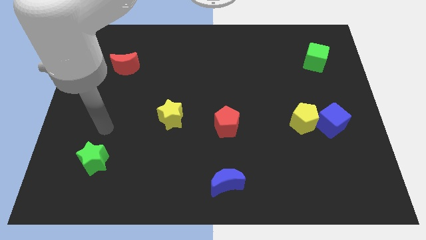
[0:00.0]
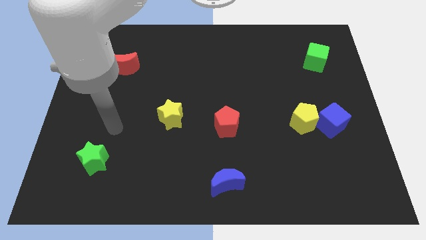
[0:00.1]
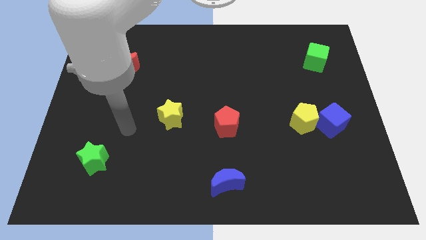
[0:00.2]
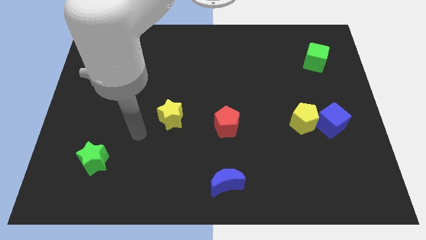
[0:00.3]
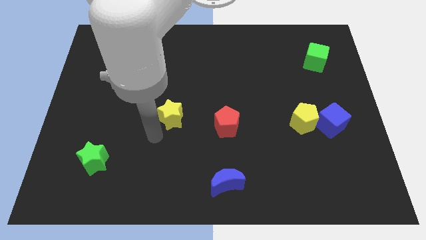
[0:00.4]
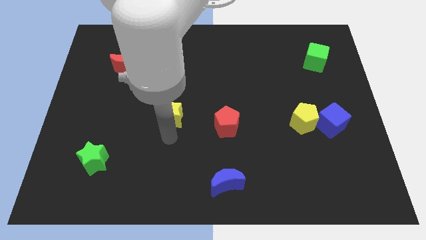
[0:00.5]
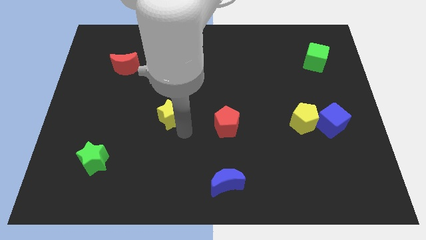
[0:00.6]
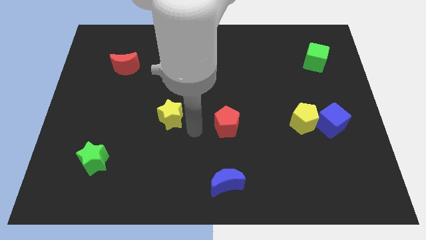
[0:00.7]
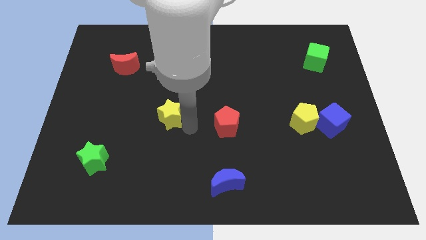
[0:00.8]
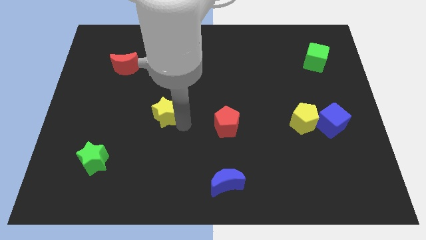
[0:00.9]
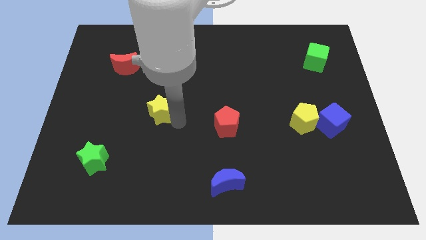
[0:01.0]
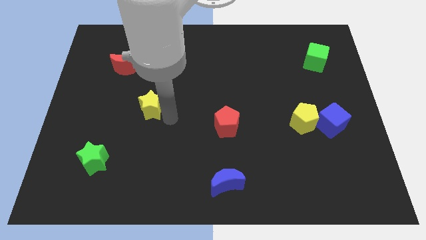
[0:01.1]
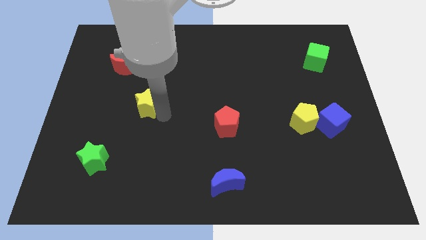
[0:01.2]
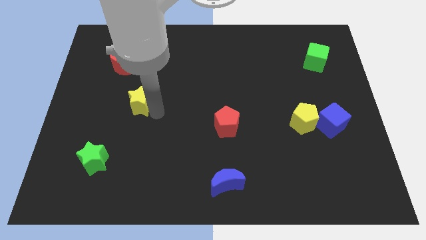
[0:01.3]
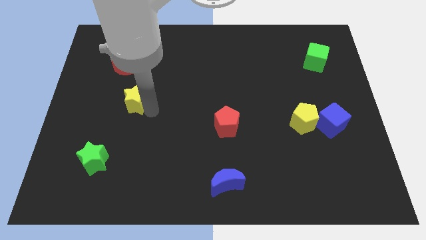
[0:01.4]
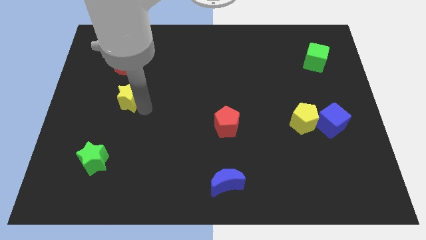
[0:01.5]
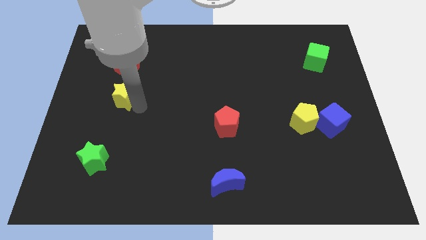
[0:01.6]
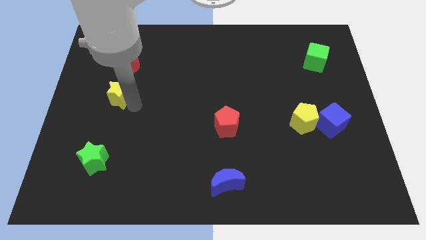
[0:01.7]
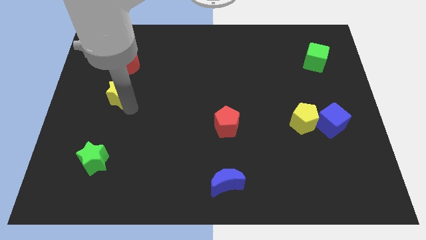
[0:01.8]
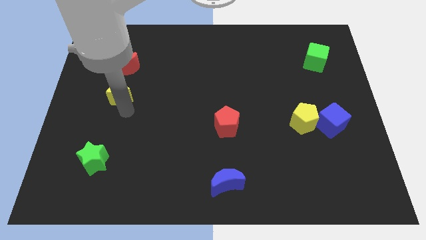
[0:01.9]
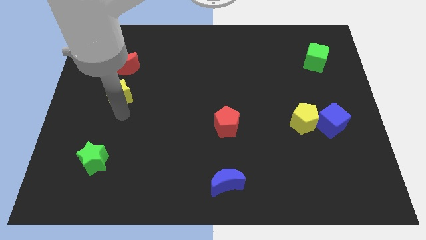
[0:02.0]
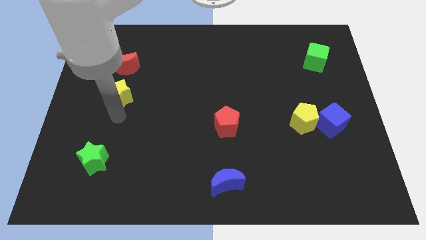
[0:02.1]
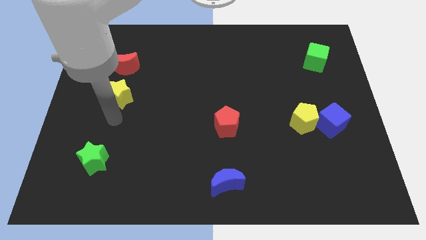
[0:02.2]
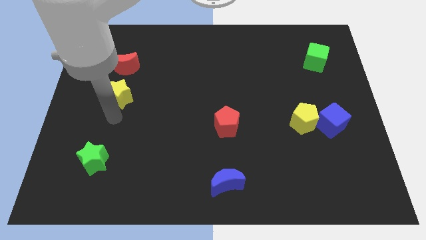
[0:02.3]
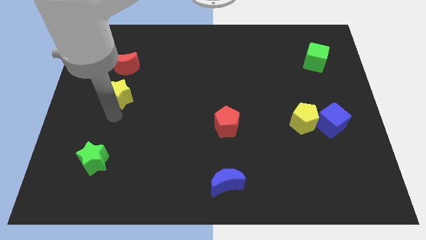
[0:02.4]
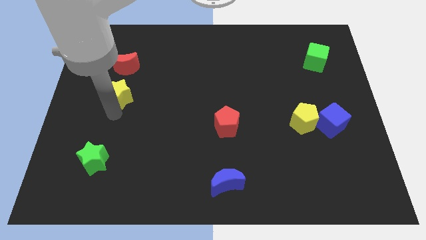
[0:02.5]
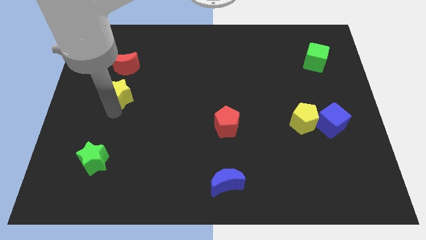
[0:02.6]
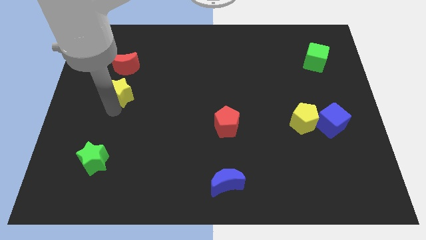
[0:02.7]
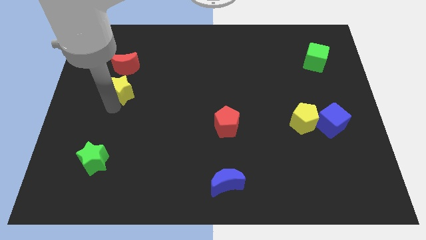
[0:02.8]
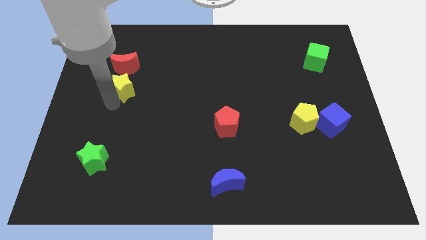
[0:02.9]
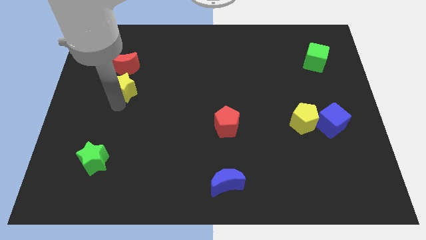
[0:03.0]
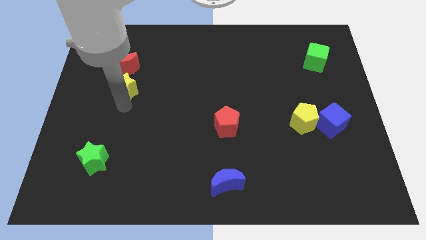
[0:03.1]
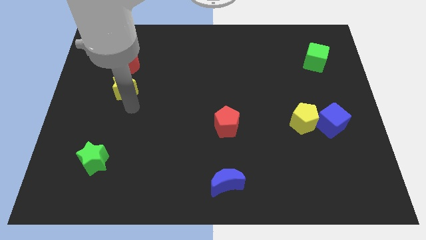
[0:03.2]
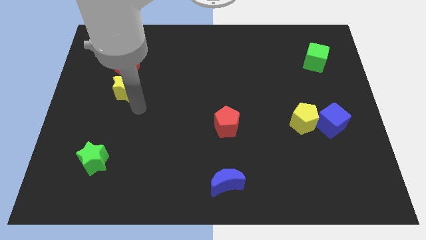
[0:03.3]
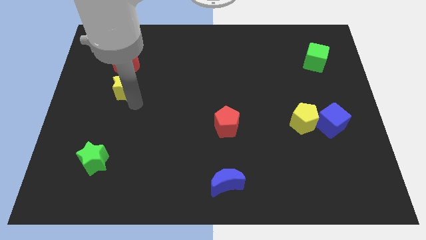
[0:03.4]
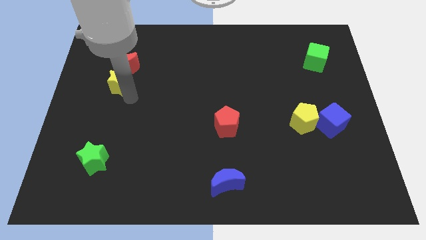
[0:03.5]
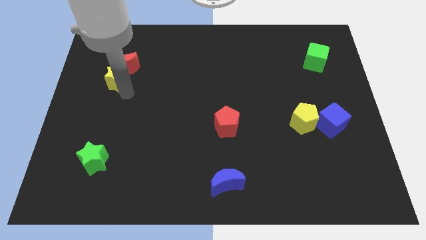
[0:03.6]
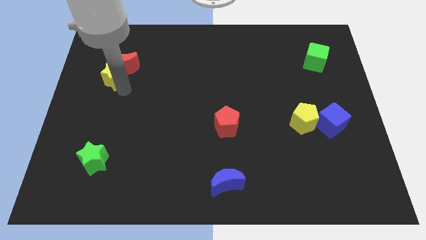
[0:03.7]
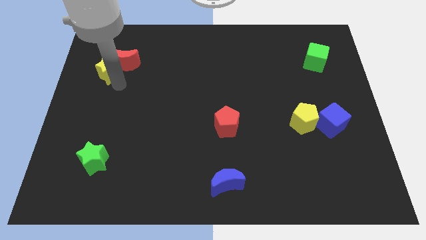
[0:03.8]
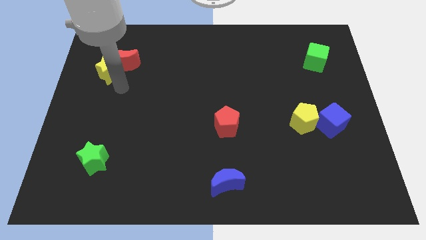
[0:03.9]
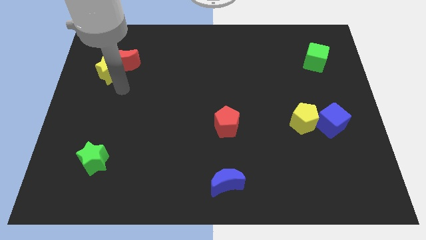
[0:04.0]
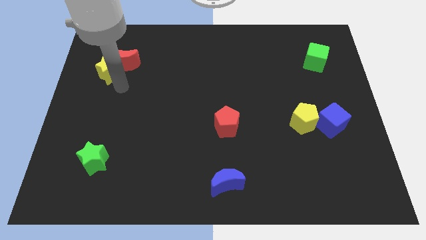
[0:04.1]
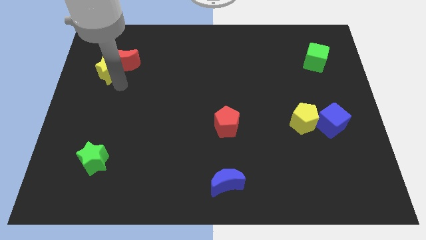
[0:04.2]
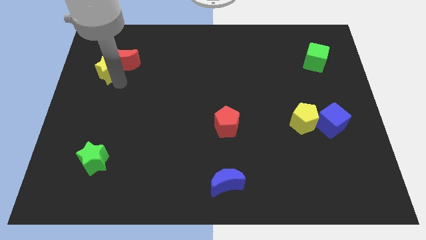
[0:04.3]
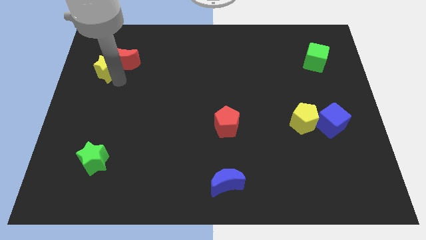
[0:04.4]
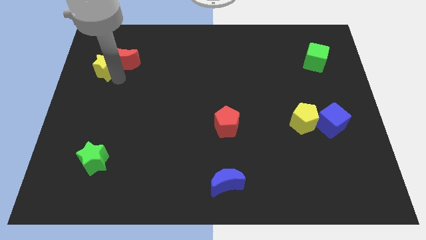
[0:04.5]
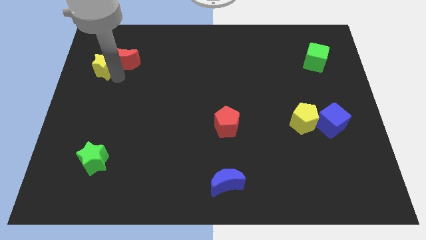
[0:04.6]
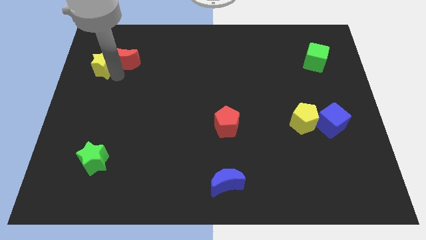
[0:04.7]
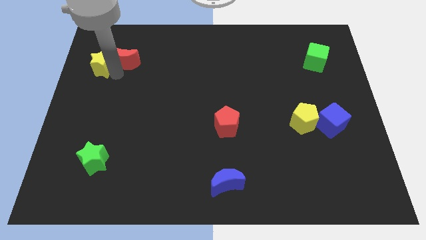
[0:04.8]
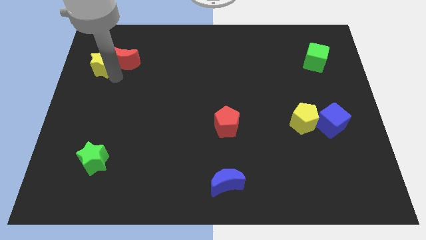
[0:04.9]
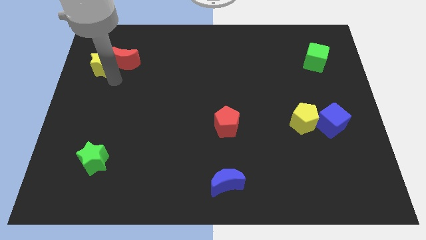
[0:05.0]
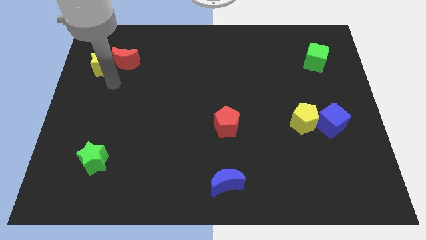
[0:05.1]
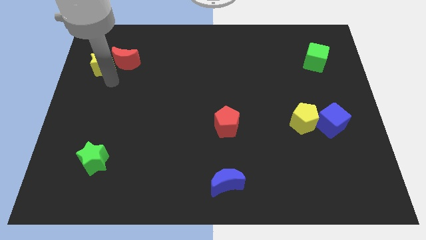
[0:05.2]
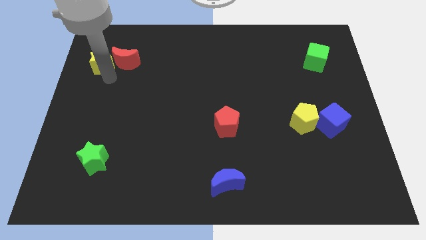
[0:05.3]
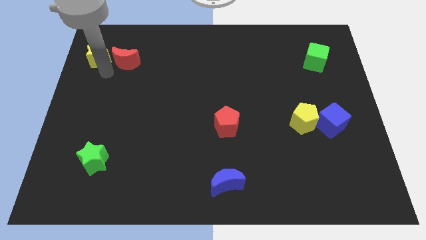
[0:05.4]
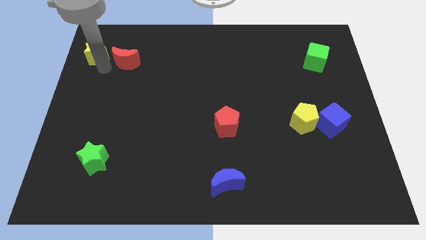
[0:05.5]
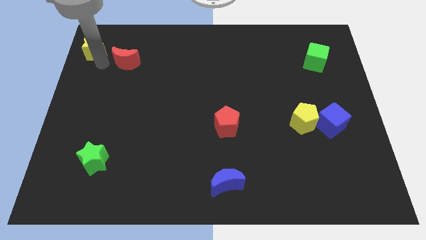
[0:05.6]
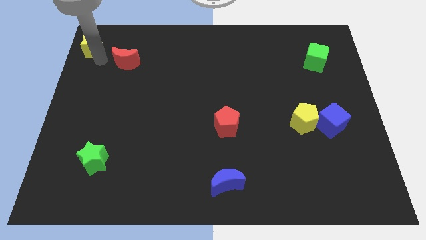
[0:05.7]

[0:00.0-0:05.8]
move the yellow star to the top left corner

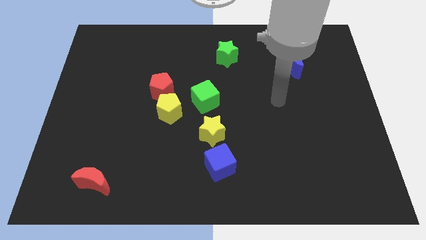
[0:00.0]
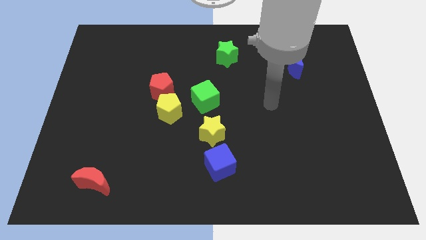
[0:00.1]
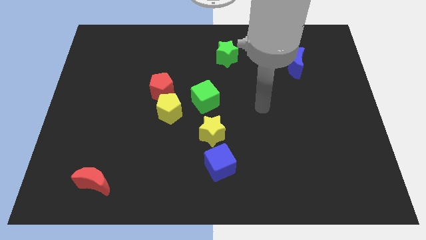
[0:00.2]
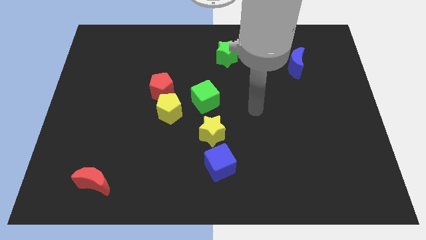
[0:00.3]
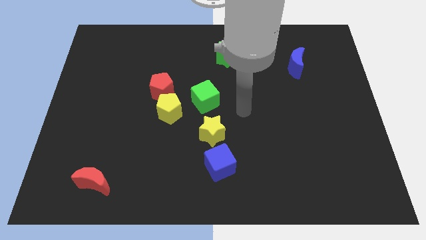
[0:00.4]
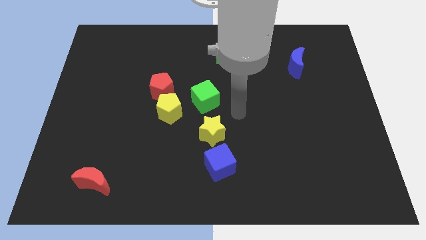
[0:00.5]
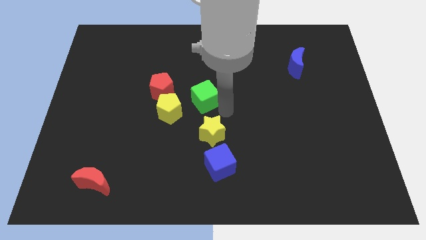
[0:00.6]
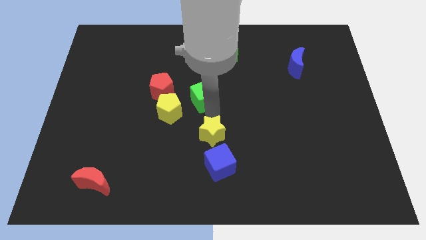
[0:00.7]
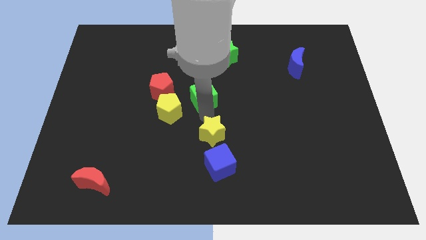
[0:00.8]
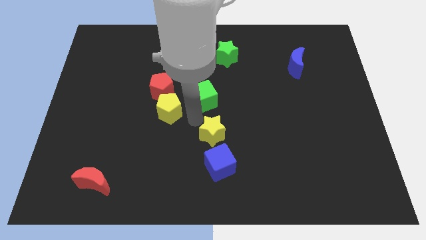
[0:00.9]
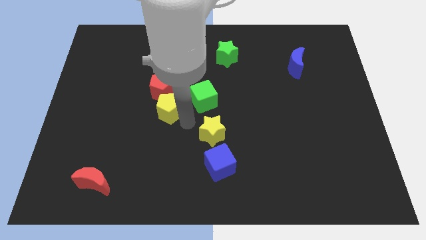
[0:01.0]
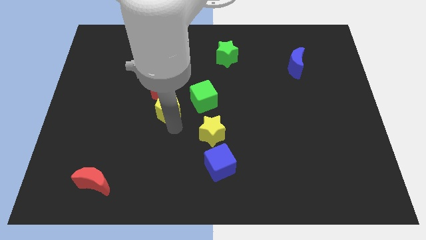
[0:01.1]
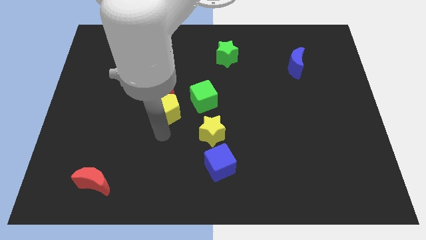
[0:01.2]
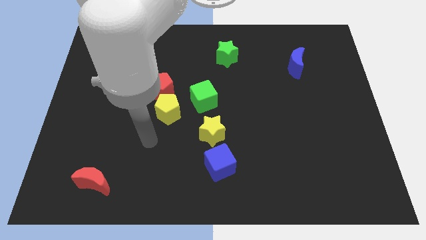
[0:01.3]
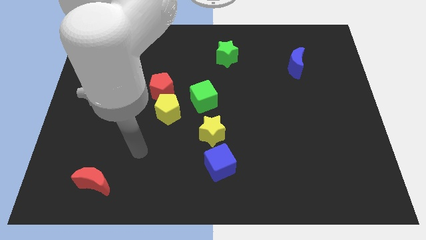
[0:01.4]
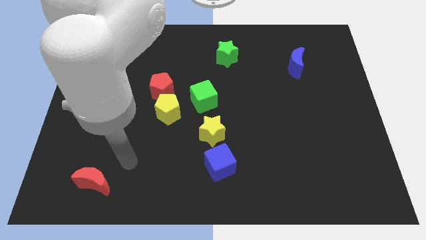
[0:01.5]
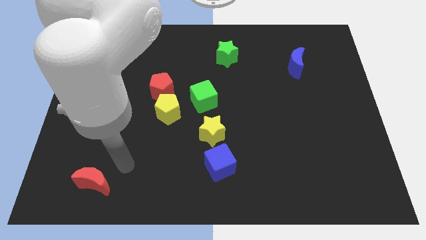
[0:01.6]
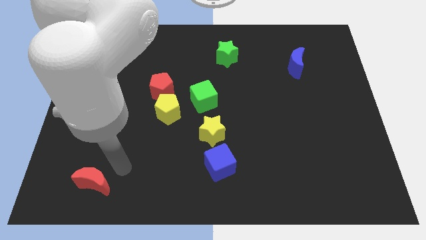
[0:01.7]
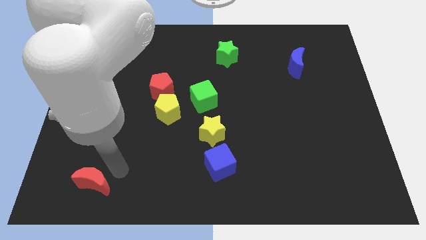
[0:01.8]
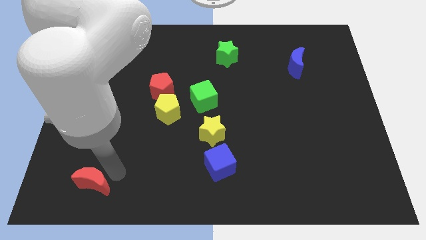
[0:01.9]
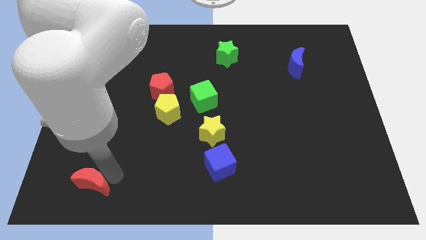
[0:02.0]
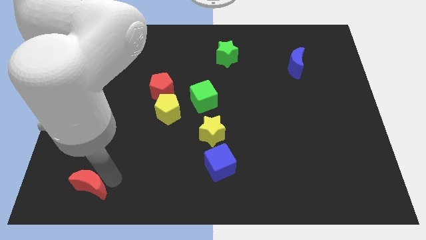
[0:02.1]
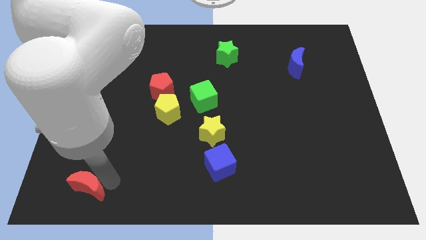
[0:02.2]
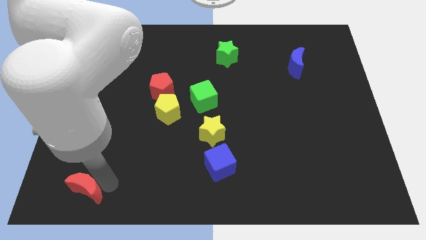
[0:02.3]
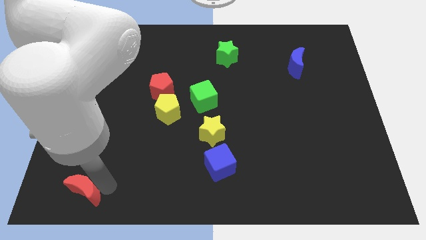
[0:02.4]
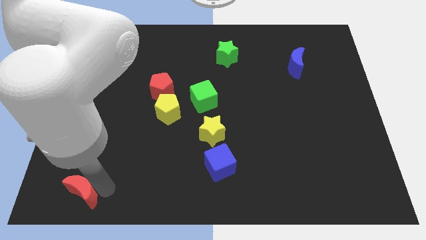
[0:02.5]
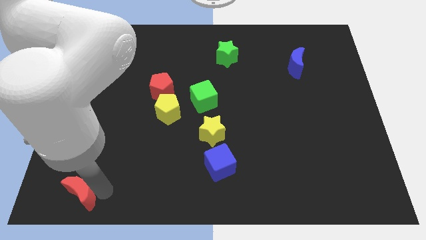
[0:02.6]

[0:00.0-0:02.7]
push the red moon to the bottom left corner
